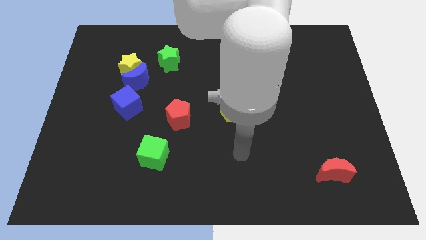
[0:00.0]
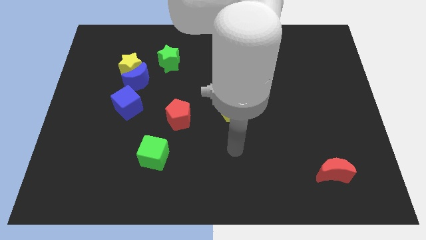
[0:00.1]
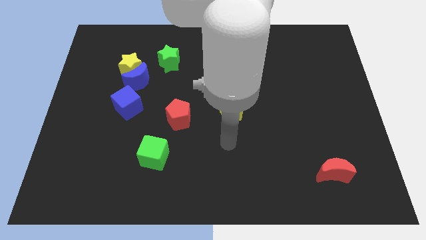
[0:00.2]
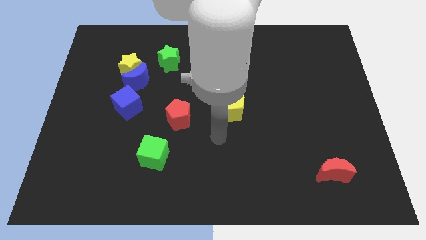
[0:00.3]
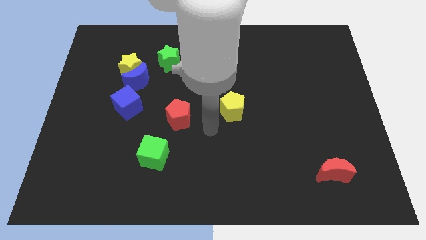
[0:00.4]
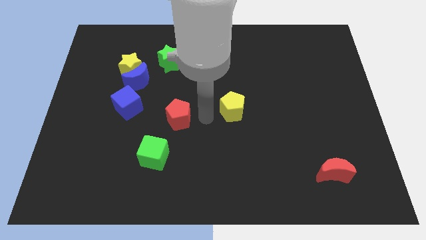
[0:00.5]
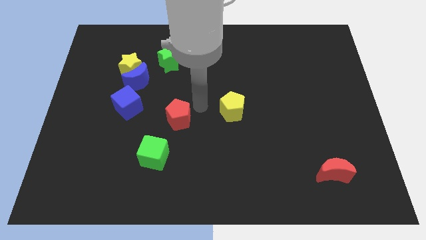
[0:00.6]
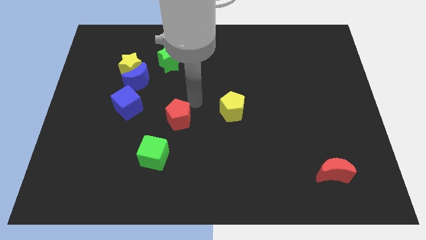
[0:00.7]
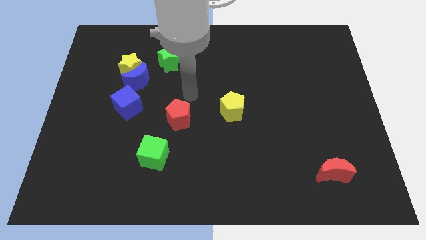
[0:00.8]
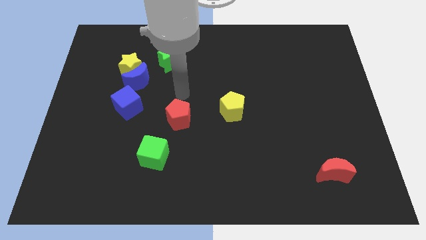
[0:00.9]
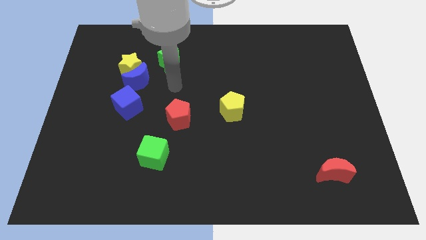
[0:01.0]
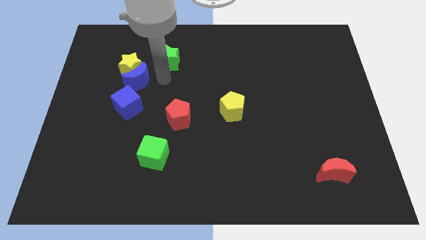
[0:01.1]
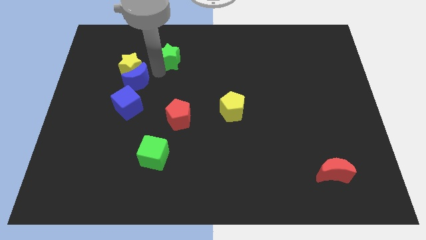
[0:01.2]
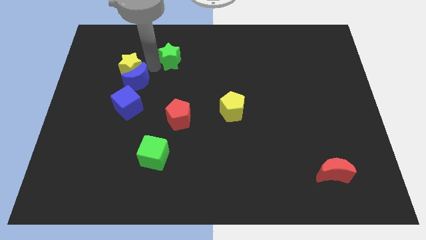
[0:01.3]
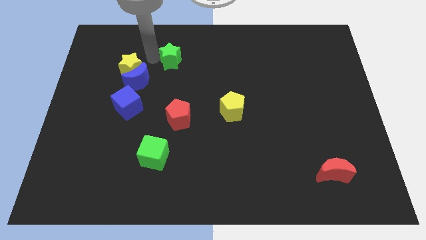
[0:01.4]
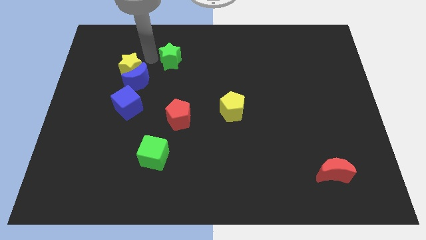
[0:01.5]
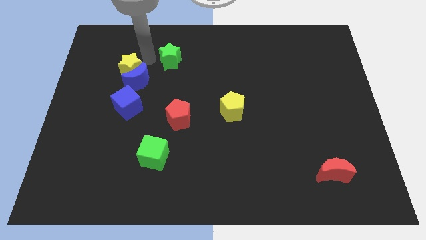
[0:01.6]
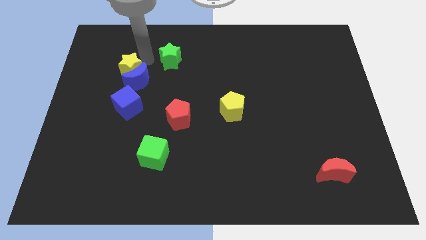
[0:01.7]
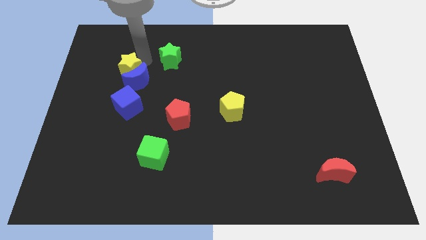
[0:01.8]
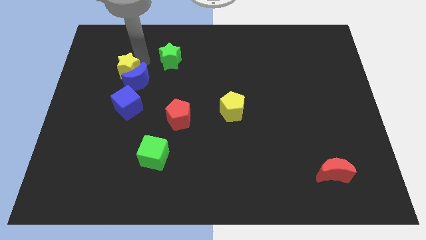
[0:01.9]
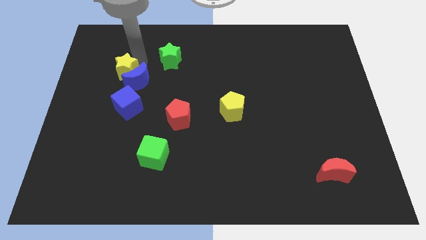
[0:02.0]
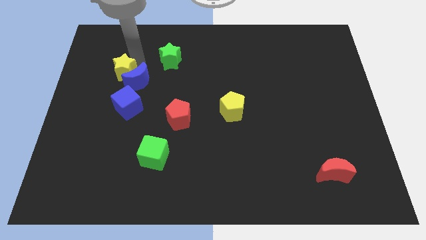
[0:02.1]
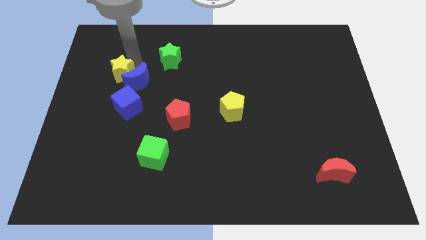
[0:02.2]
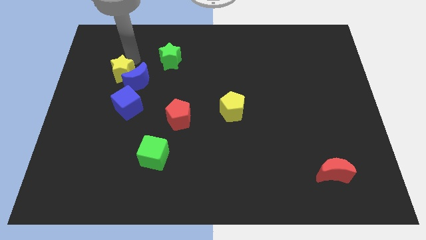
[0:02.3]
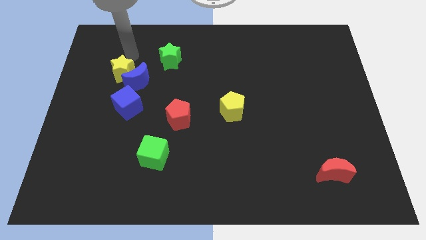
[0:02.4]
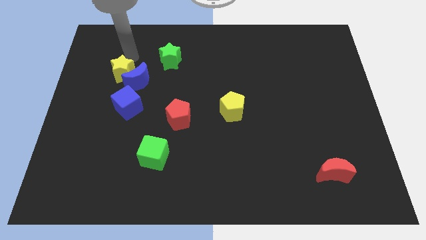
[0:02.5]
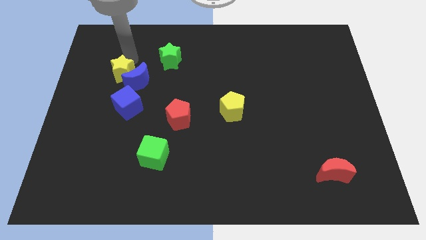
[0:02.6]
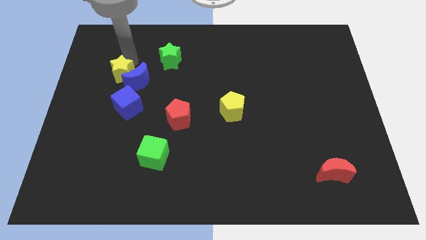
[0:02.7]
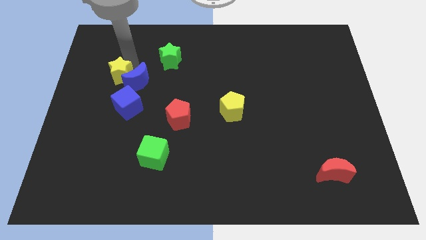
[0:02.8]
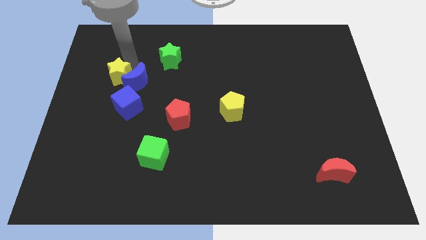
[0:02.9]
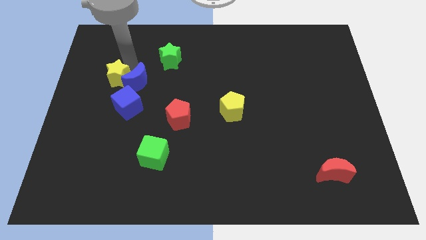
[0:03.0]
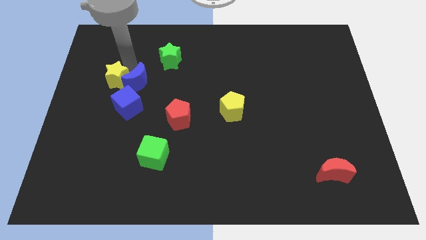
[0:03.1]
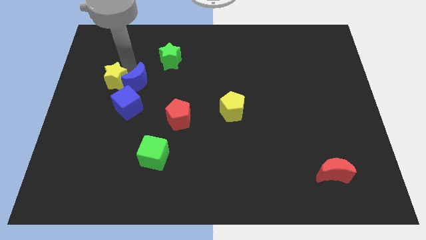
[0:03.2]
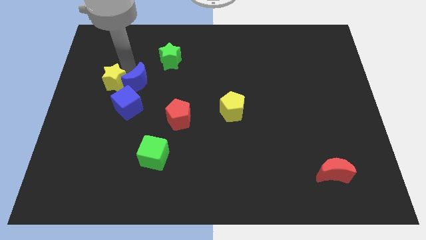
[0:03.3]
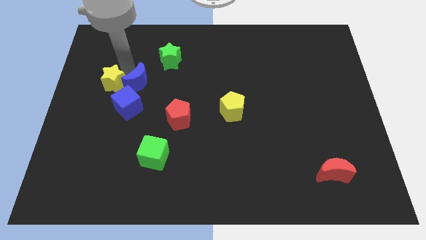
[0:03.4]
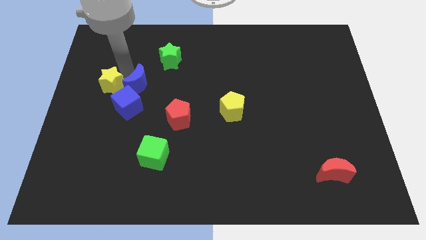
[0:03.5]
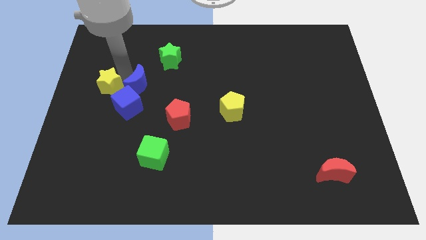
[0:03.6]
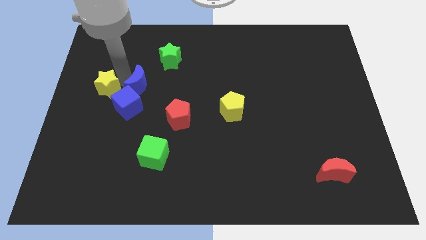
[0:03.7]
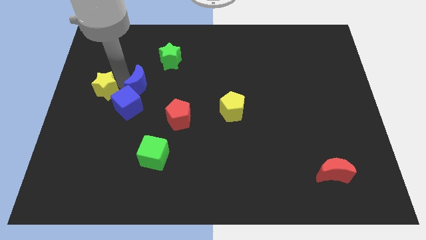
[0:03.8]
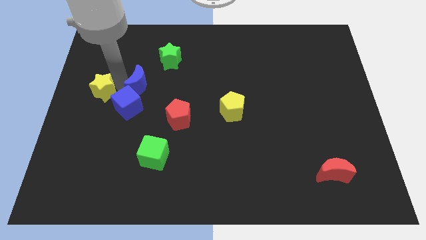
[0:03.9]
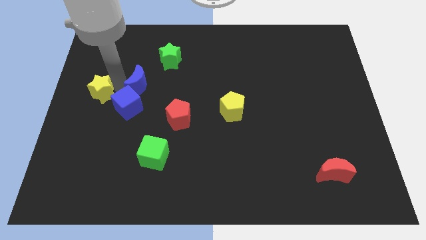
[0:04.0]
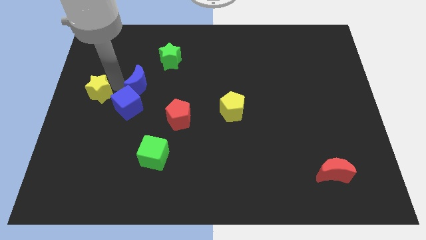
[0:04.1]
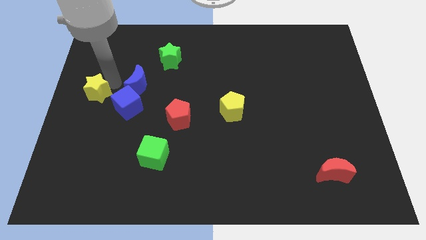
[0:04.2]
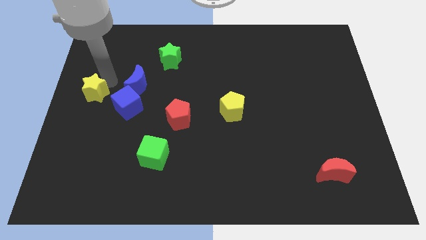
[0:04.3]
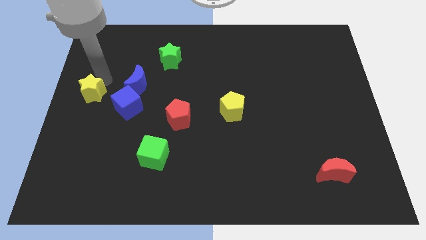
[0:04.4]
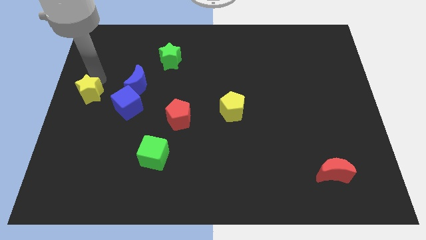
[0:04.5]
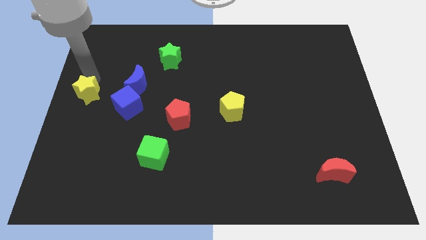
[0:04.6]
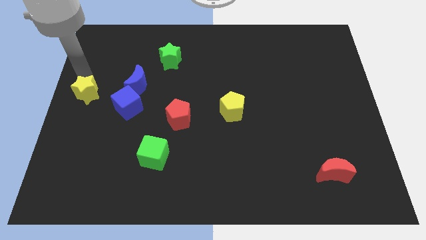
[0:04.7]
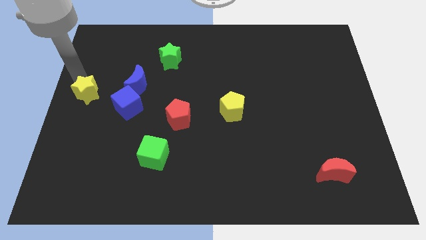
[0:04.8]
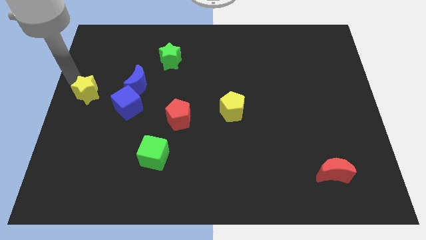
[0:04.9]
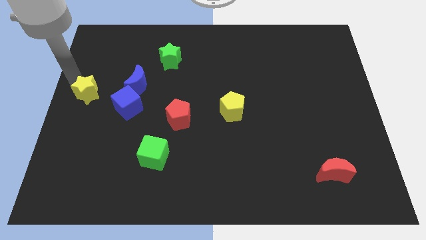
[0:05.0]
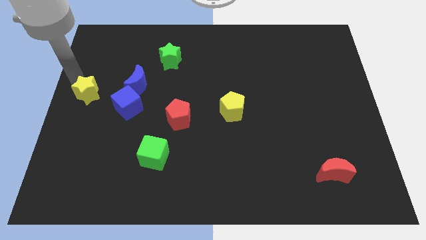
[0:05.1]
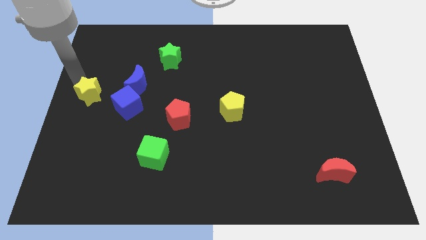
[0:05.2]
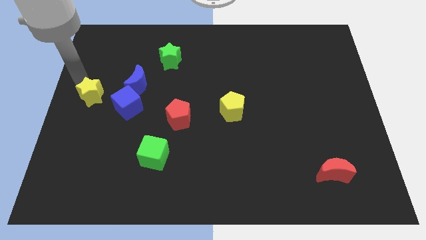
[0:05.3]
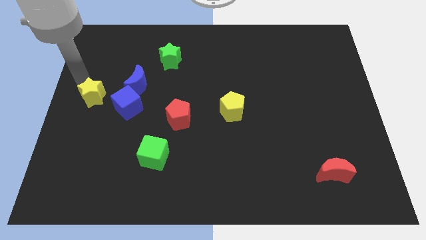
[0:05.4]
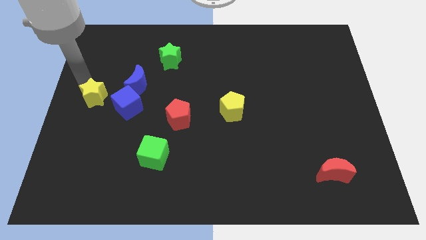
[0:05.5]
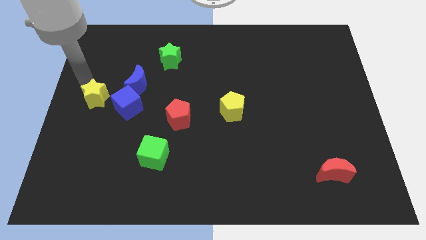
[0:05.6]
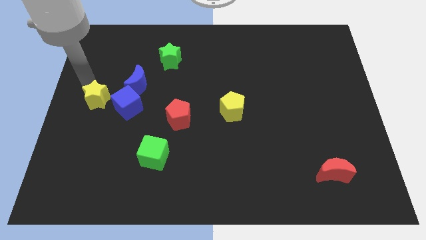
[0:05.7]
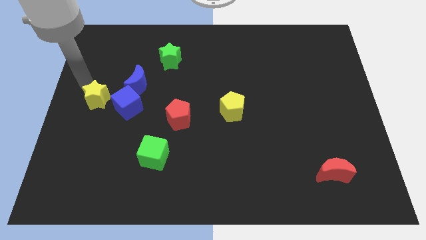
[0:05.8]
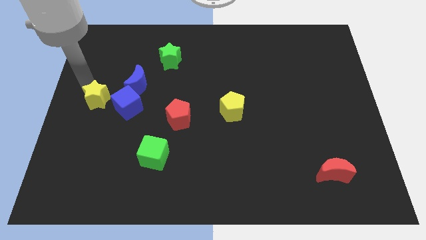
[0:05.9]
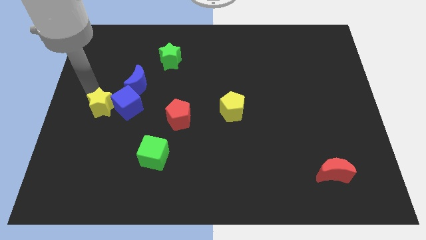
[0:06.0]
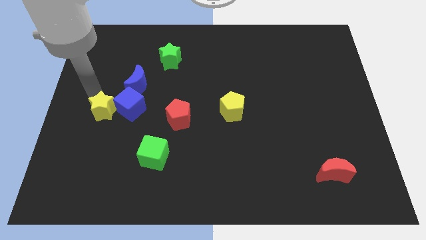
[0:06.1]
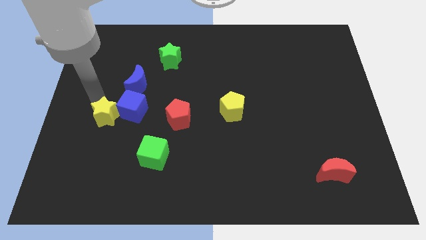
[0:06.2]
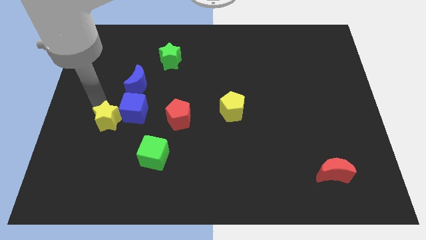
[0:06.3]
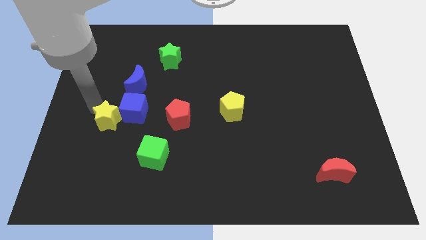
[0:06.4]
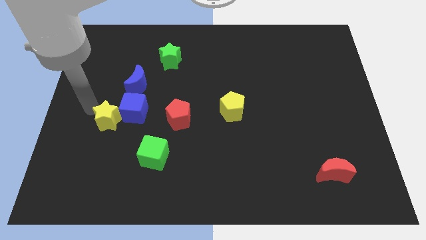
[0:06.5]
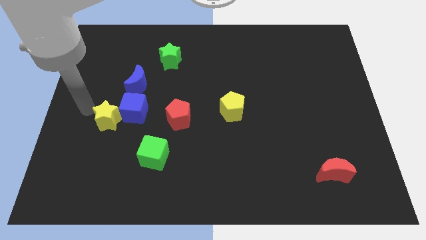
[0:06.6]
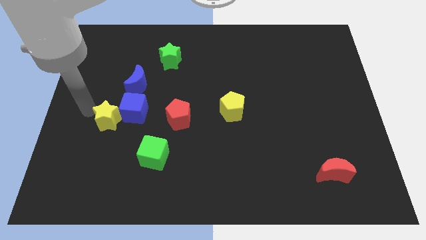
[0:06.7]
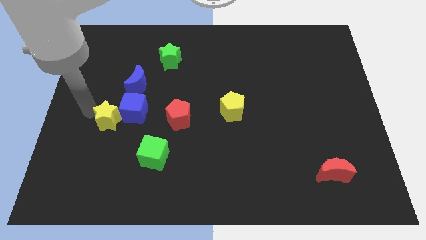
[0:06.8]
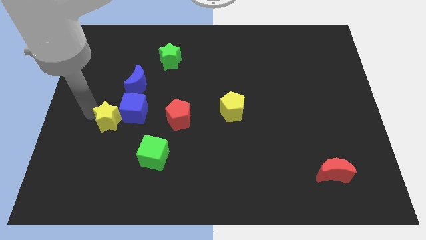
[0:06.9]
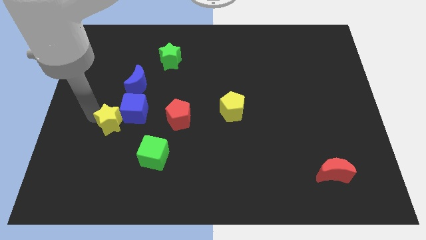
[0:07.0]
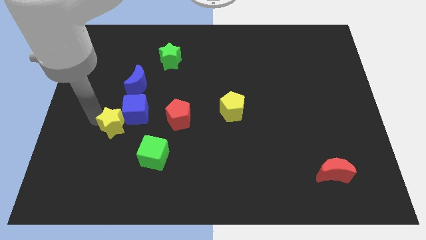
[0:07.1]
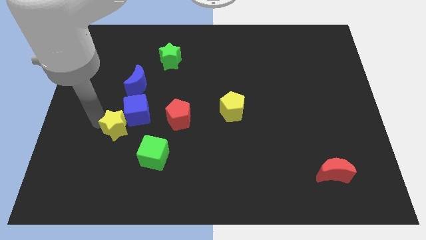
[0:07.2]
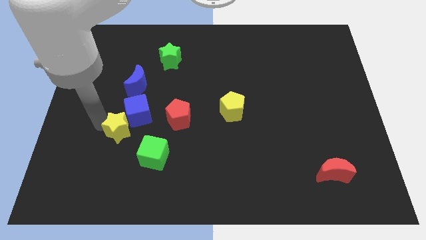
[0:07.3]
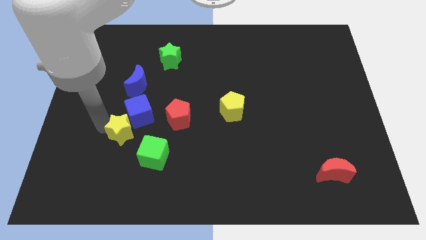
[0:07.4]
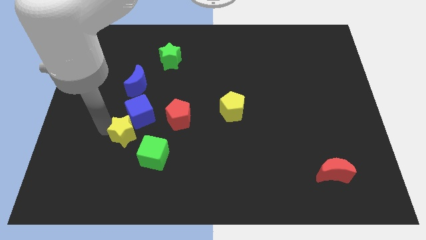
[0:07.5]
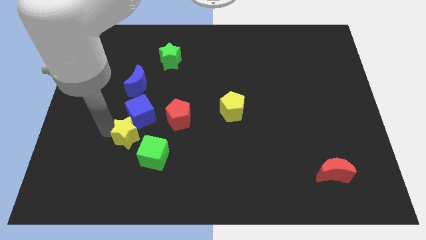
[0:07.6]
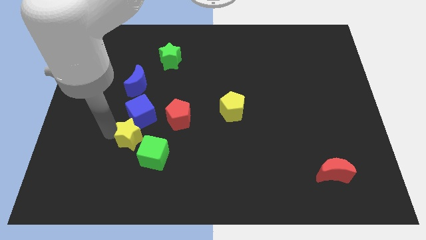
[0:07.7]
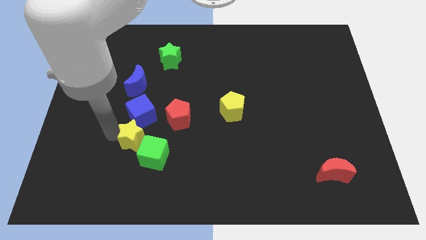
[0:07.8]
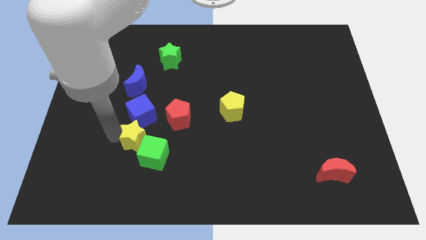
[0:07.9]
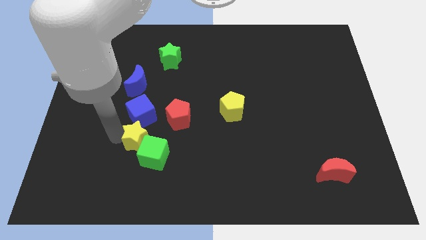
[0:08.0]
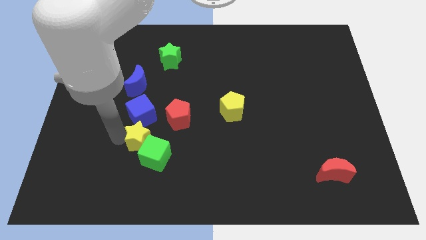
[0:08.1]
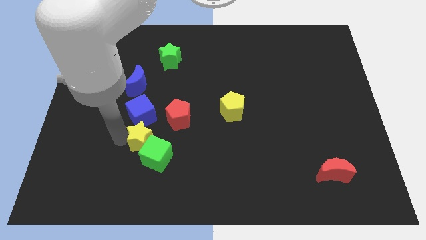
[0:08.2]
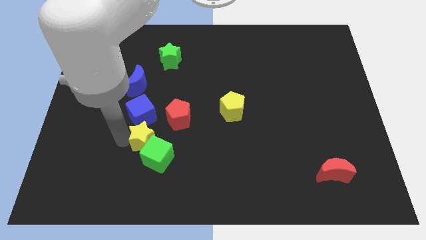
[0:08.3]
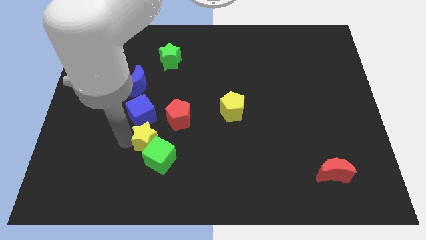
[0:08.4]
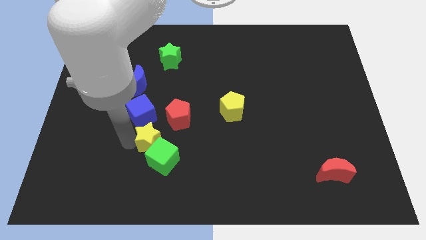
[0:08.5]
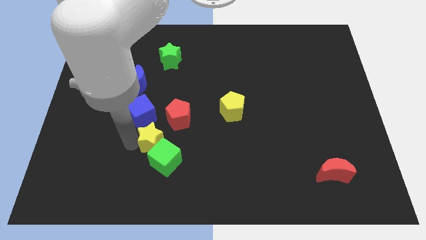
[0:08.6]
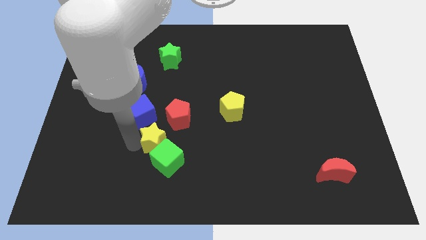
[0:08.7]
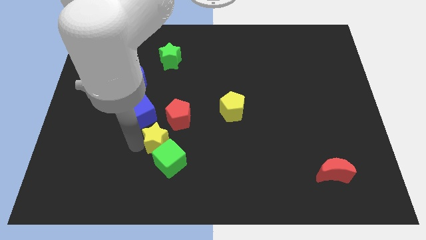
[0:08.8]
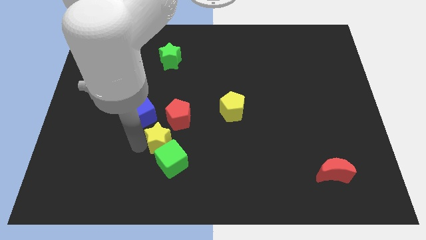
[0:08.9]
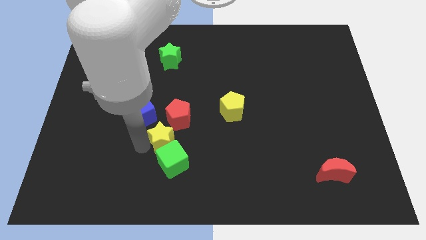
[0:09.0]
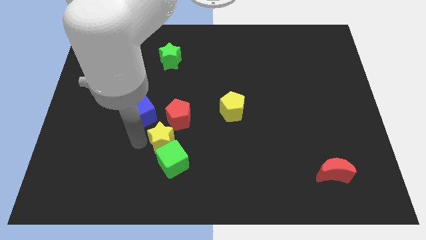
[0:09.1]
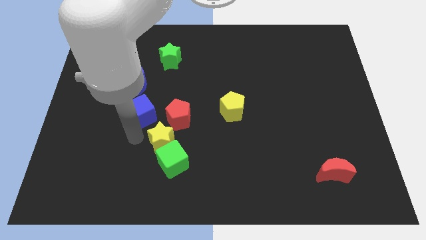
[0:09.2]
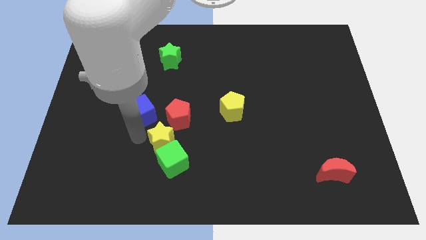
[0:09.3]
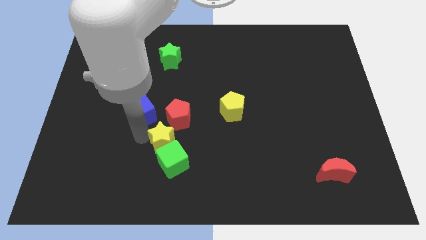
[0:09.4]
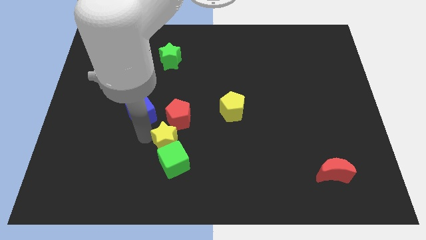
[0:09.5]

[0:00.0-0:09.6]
move the yellow star diagonally downwards and to the right
